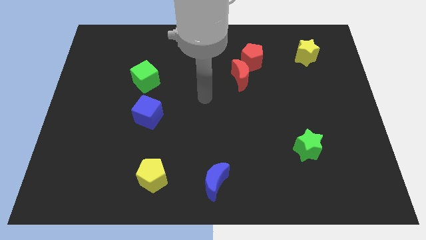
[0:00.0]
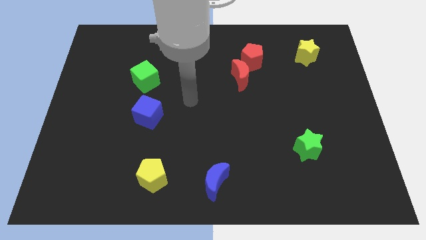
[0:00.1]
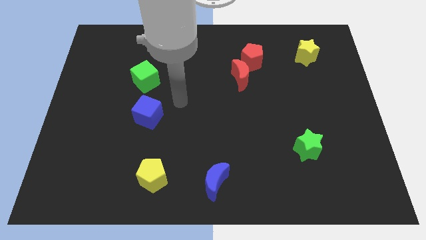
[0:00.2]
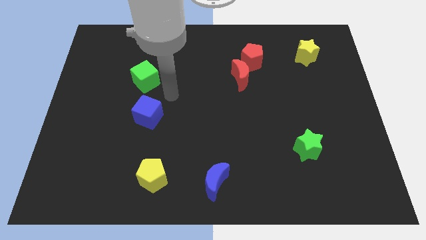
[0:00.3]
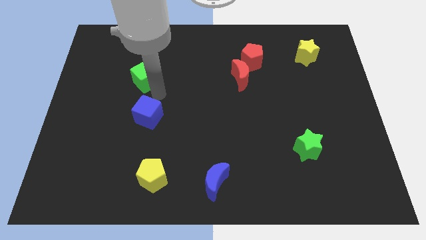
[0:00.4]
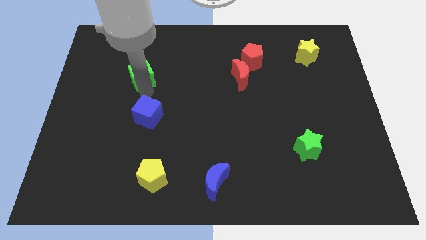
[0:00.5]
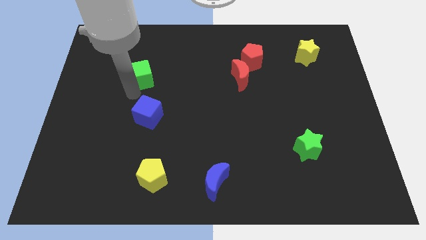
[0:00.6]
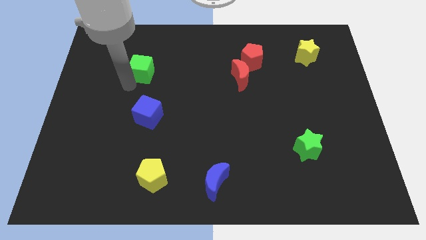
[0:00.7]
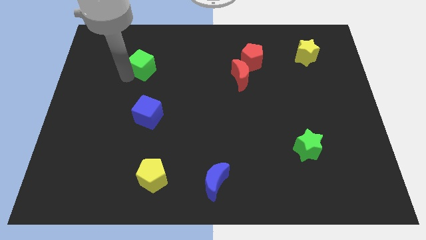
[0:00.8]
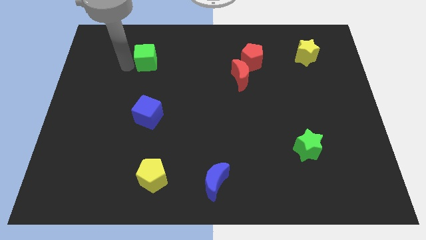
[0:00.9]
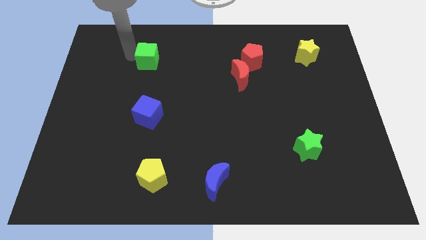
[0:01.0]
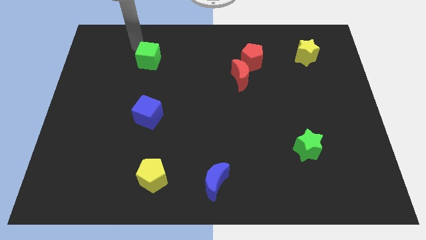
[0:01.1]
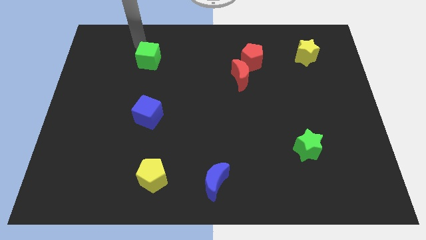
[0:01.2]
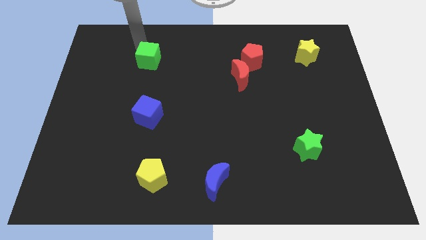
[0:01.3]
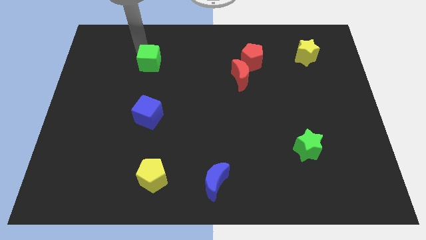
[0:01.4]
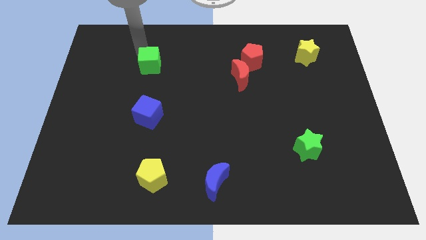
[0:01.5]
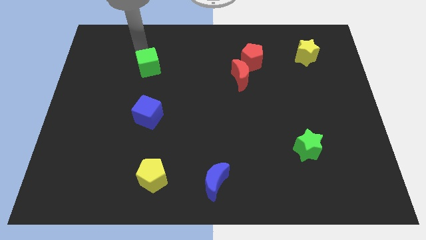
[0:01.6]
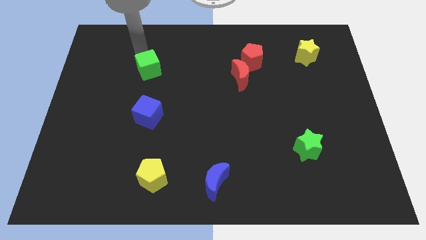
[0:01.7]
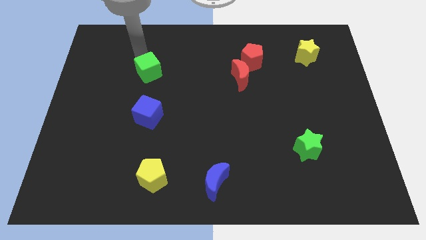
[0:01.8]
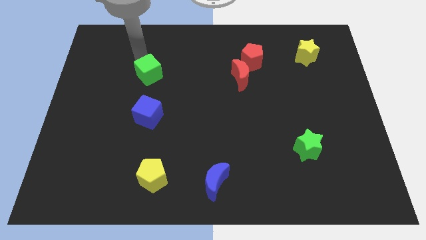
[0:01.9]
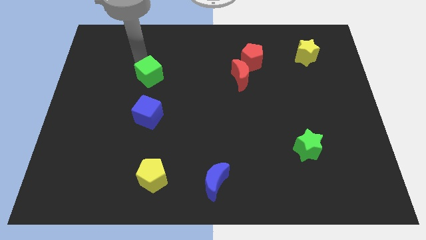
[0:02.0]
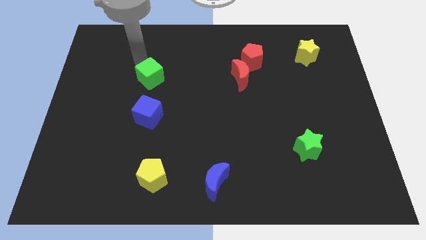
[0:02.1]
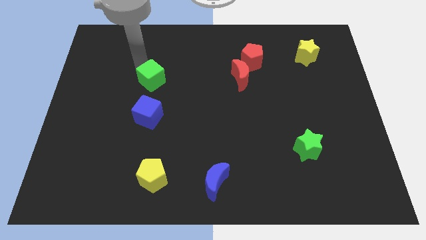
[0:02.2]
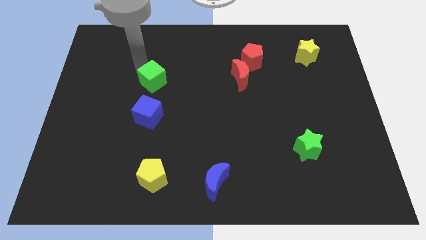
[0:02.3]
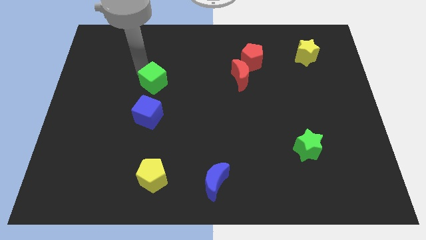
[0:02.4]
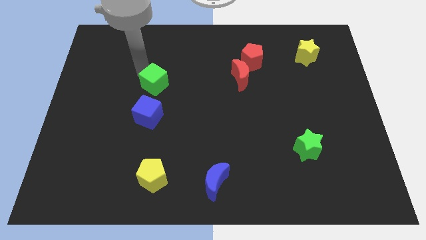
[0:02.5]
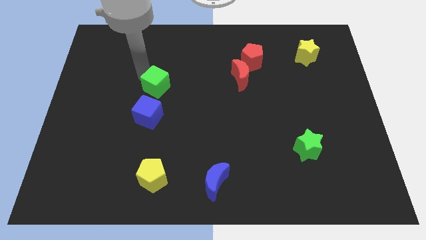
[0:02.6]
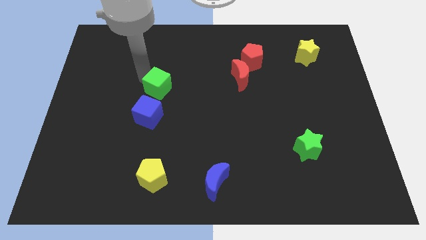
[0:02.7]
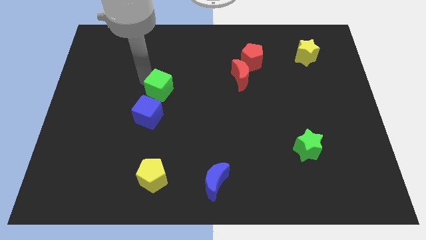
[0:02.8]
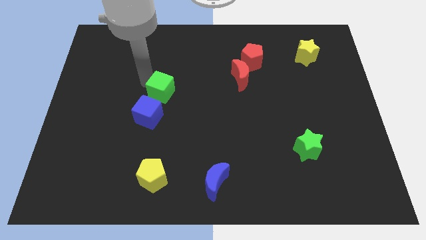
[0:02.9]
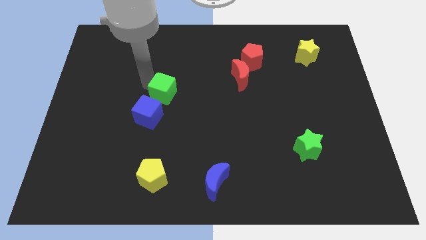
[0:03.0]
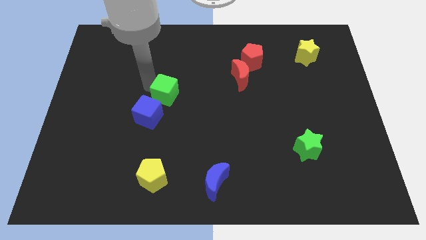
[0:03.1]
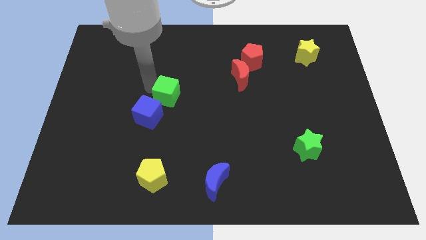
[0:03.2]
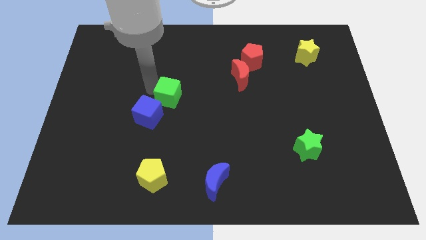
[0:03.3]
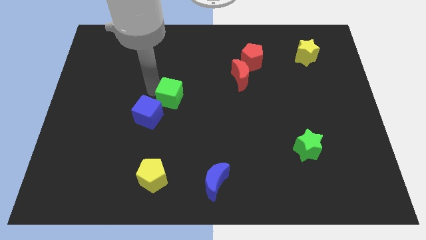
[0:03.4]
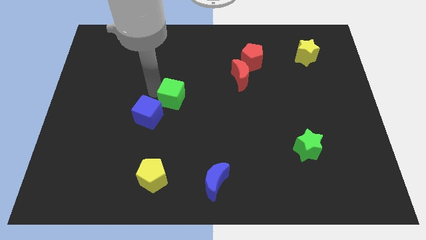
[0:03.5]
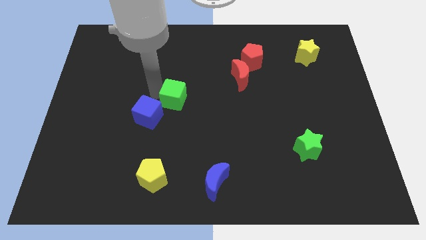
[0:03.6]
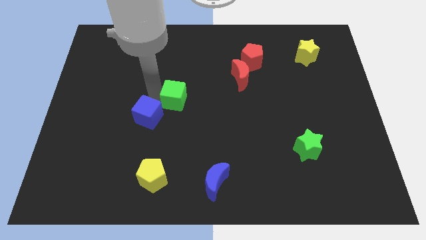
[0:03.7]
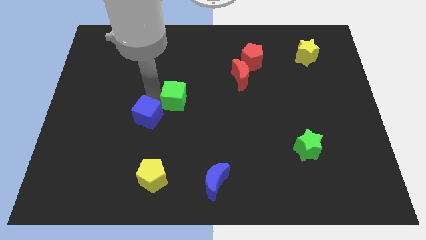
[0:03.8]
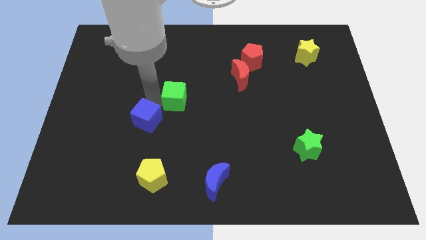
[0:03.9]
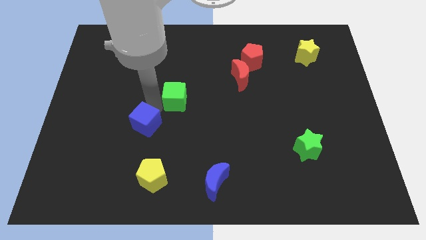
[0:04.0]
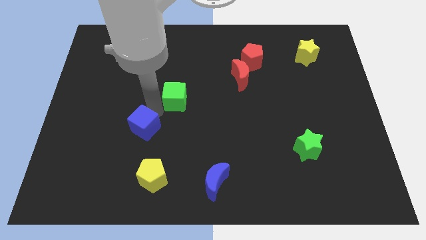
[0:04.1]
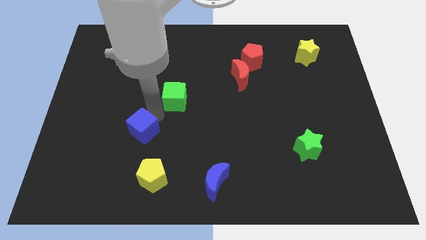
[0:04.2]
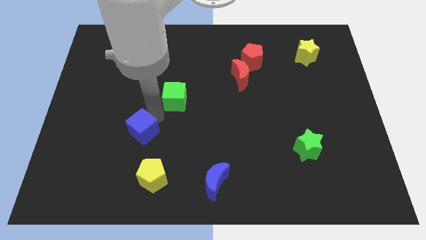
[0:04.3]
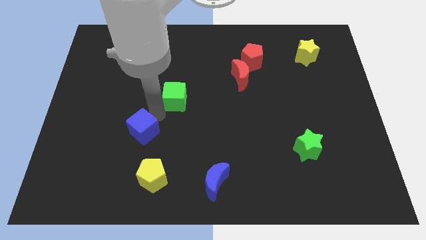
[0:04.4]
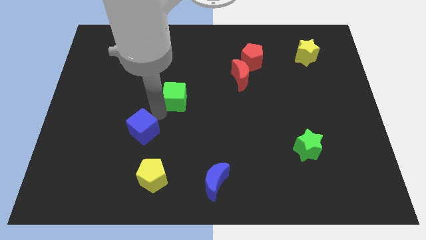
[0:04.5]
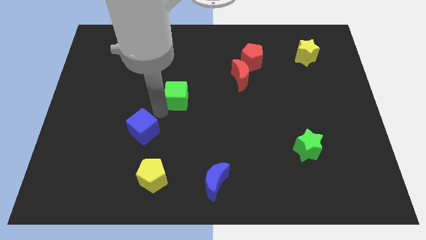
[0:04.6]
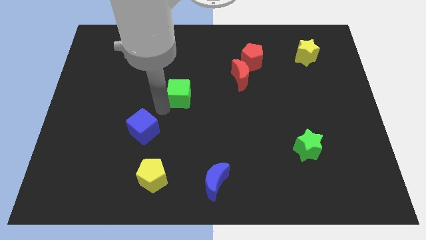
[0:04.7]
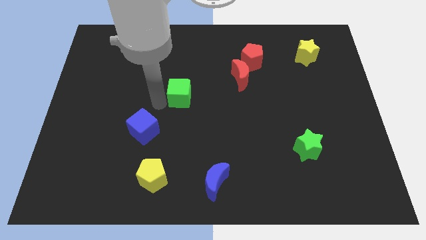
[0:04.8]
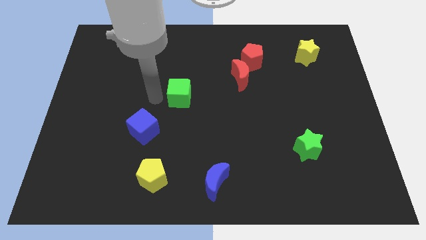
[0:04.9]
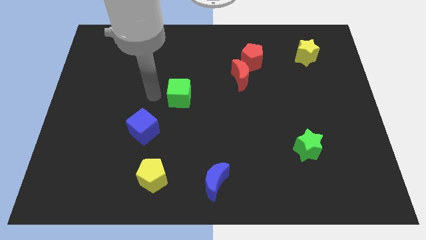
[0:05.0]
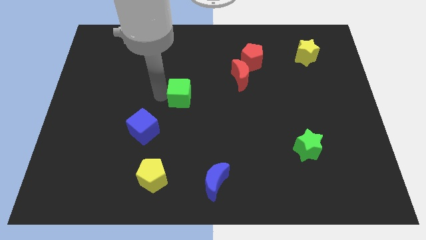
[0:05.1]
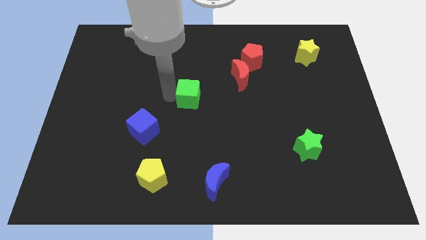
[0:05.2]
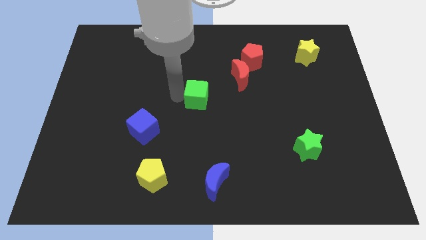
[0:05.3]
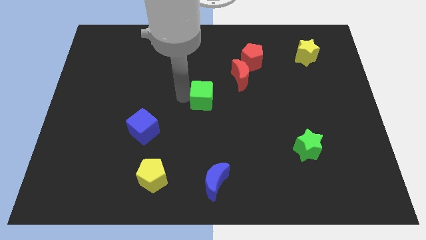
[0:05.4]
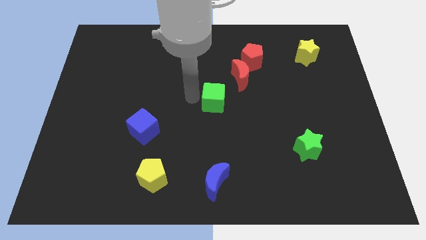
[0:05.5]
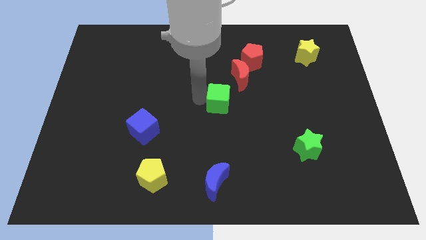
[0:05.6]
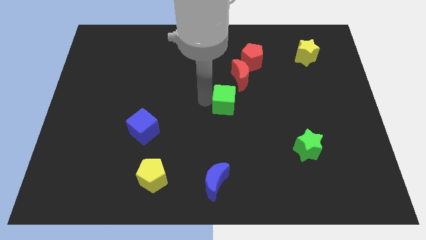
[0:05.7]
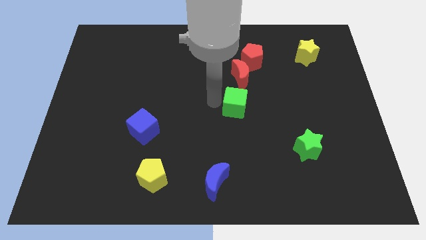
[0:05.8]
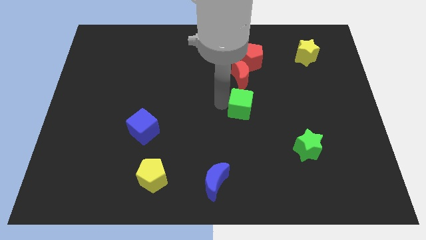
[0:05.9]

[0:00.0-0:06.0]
move the green cube to the right

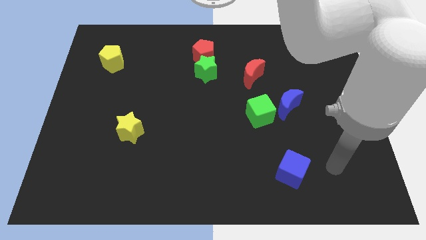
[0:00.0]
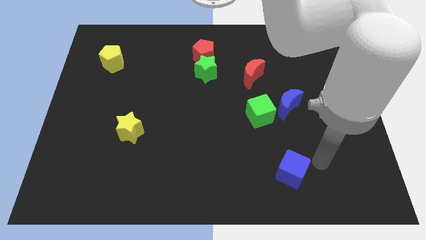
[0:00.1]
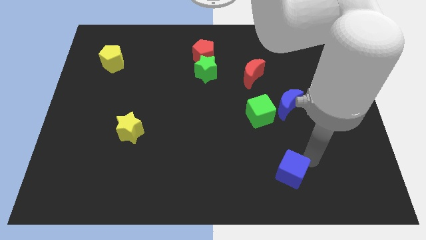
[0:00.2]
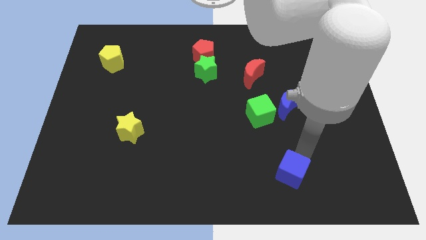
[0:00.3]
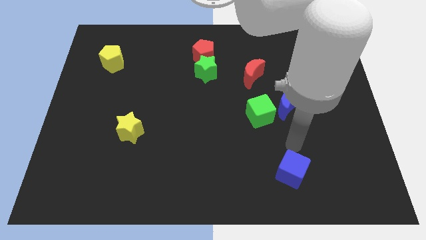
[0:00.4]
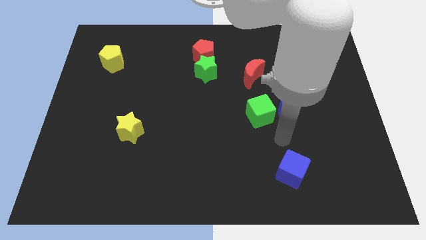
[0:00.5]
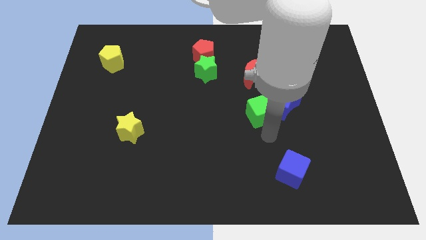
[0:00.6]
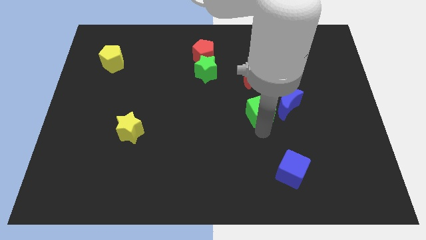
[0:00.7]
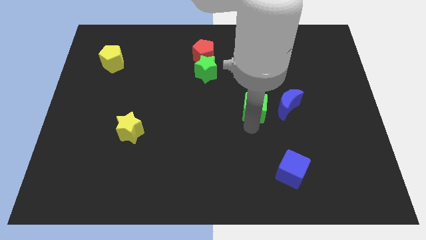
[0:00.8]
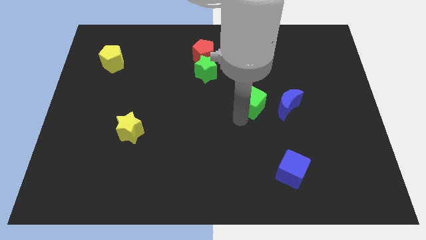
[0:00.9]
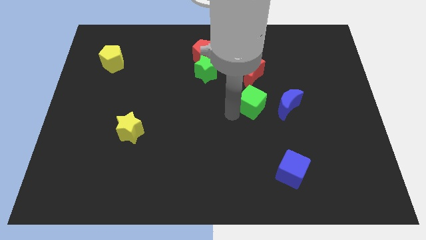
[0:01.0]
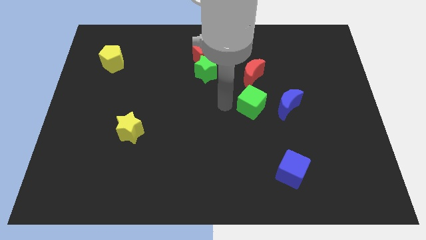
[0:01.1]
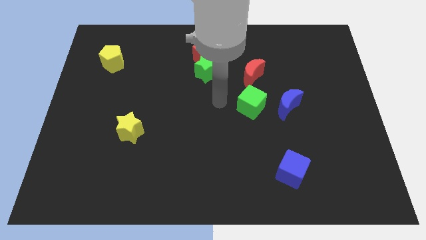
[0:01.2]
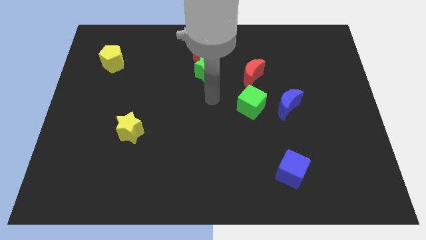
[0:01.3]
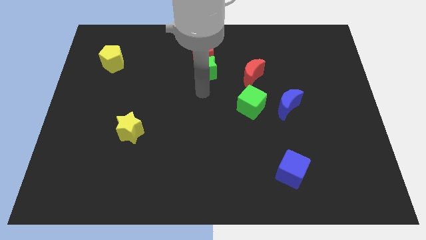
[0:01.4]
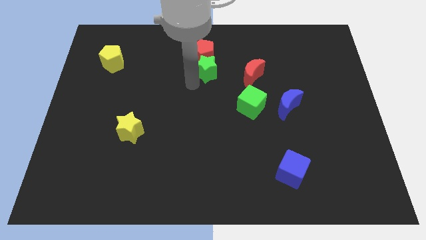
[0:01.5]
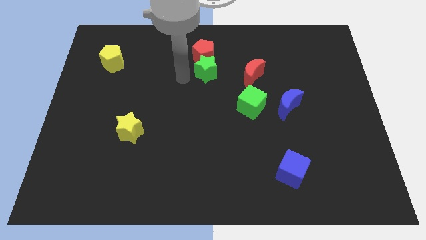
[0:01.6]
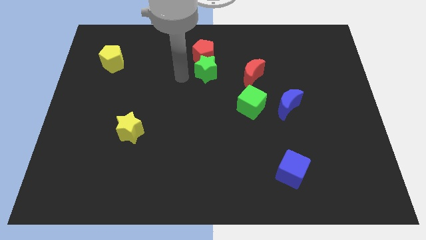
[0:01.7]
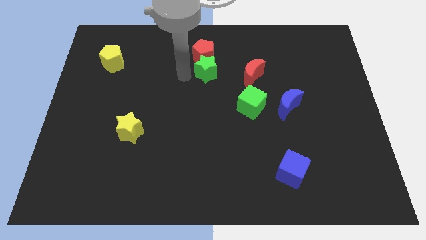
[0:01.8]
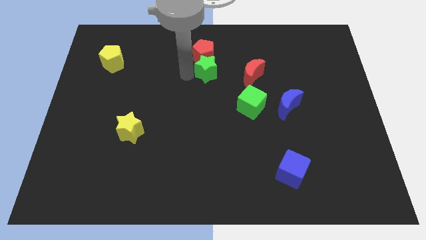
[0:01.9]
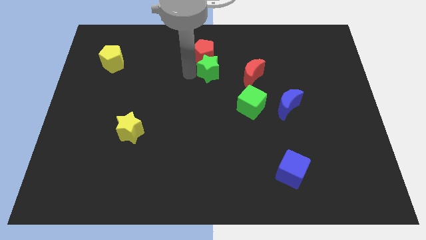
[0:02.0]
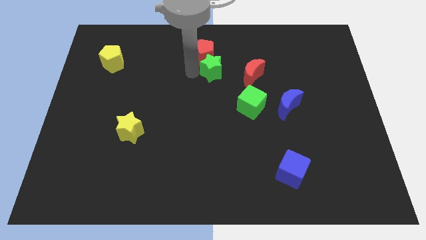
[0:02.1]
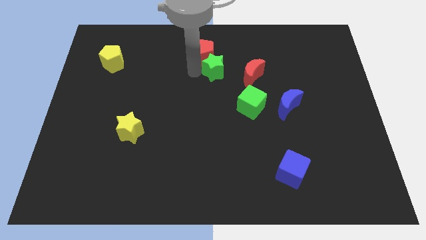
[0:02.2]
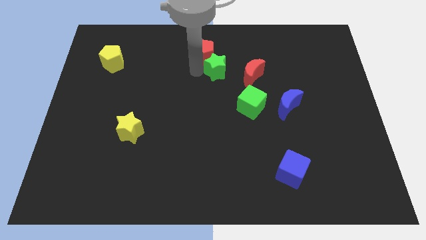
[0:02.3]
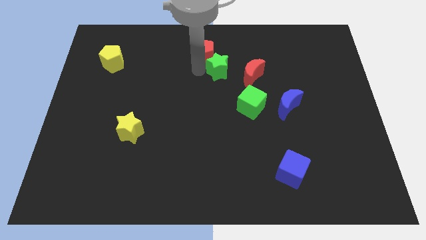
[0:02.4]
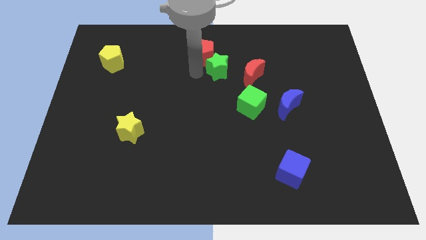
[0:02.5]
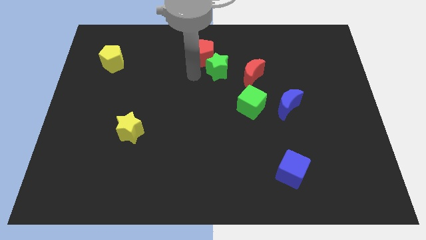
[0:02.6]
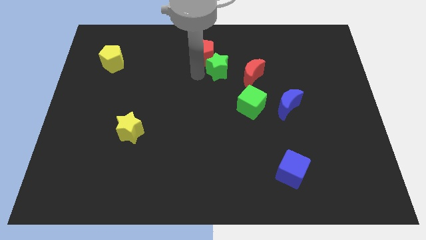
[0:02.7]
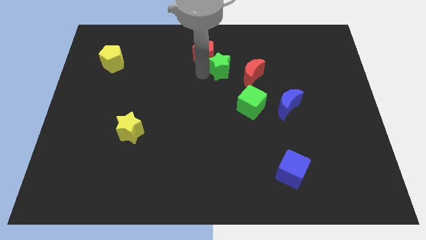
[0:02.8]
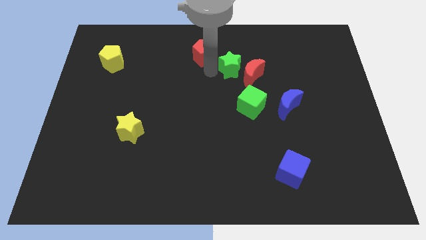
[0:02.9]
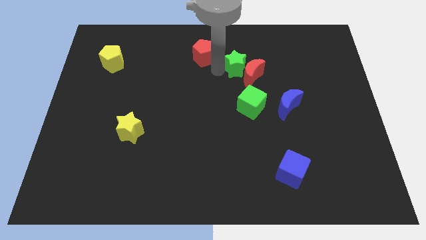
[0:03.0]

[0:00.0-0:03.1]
slide the green star somewhat to the right
